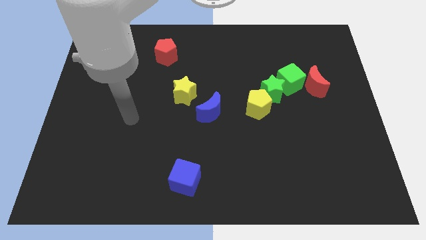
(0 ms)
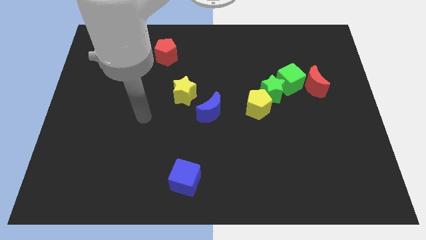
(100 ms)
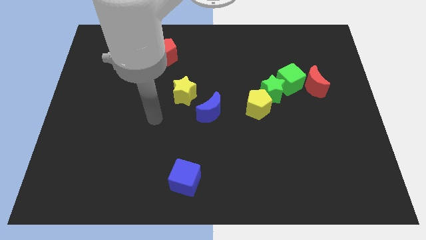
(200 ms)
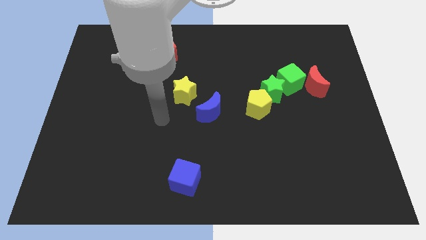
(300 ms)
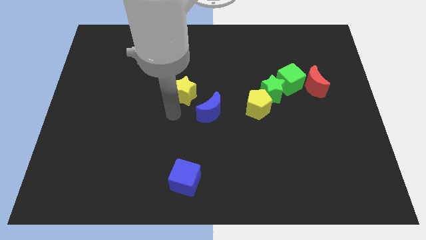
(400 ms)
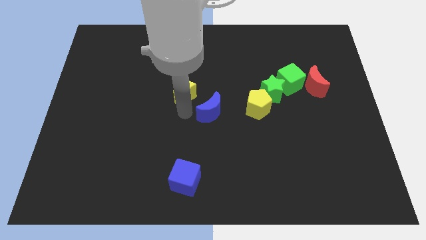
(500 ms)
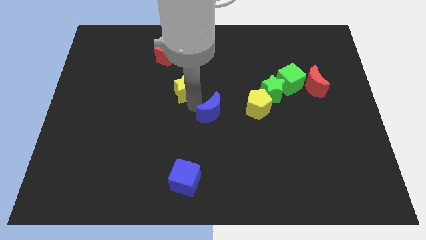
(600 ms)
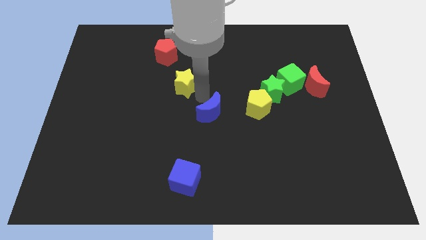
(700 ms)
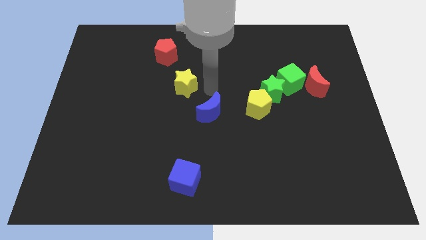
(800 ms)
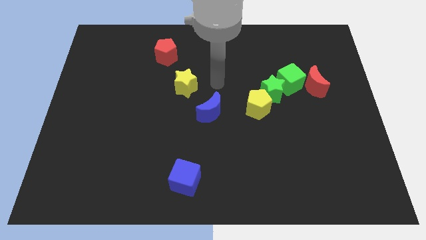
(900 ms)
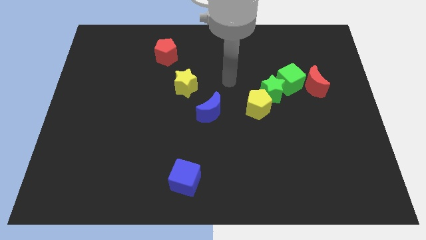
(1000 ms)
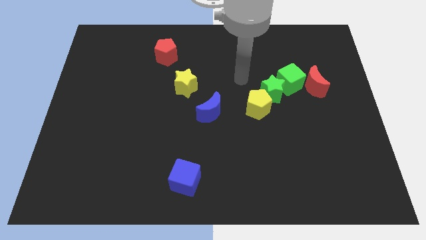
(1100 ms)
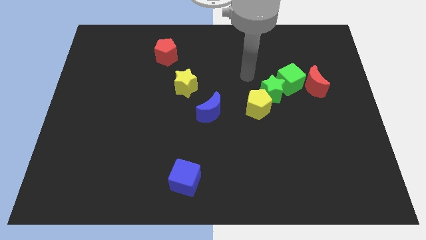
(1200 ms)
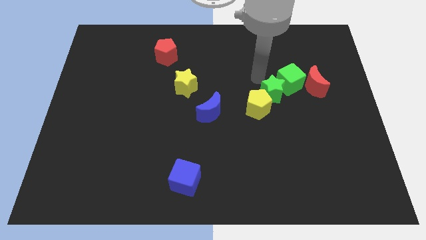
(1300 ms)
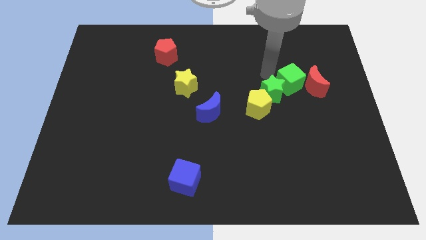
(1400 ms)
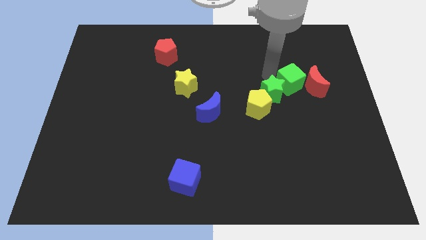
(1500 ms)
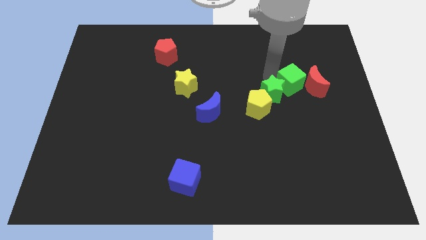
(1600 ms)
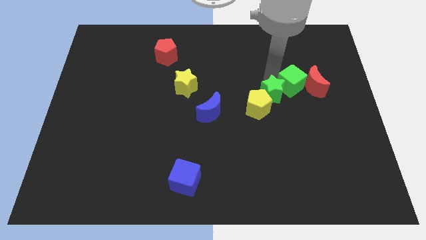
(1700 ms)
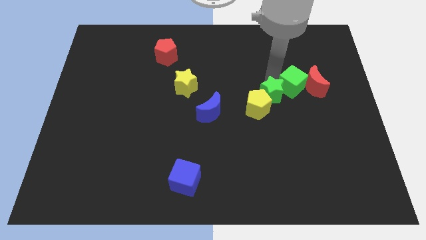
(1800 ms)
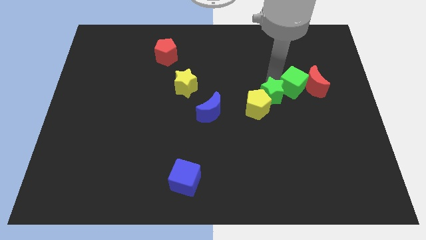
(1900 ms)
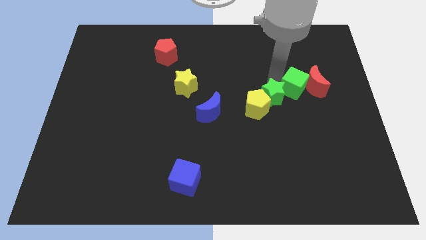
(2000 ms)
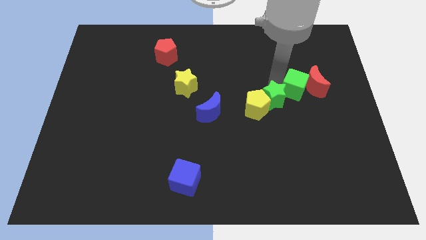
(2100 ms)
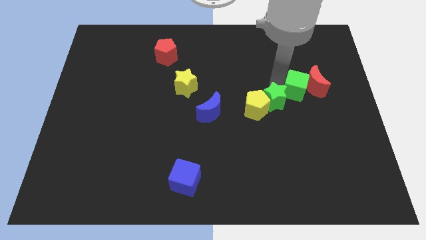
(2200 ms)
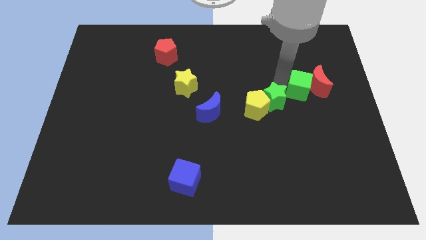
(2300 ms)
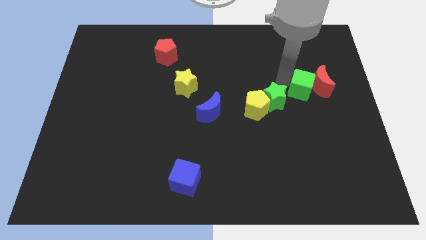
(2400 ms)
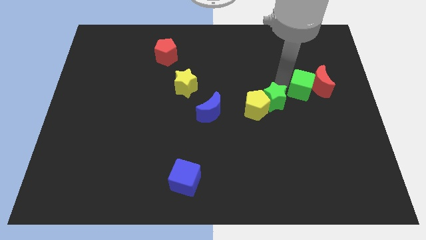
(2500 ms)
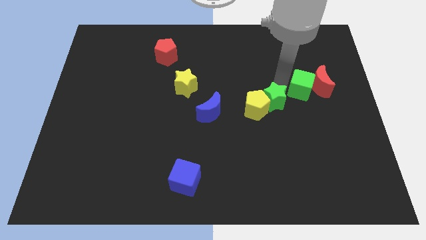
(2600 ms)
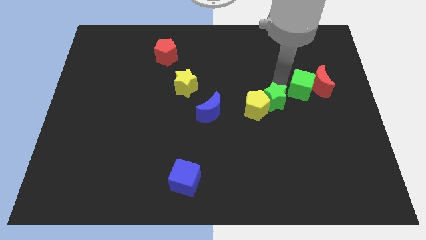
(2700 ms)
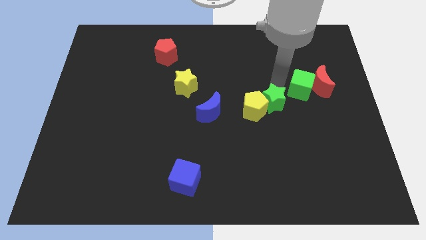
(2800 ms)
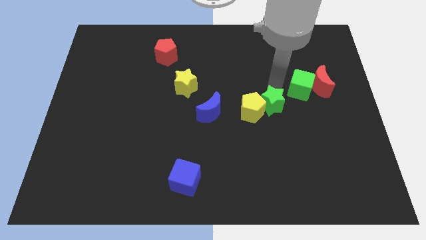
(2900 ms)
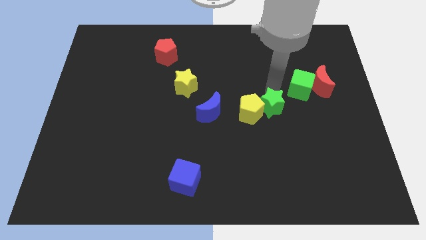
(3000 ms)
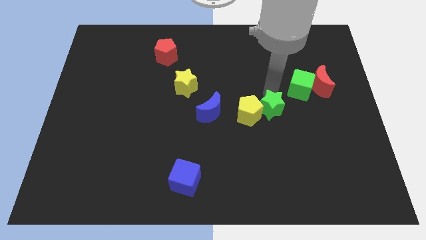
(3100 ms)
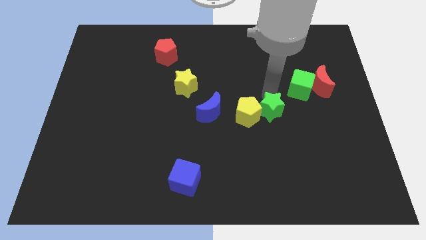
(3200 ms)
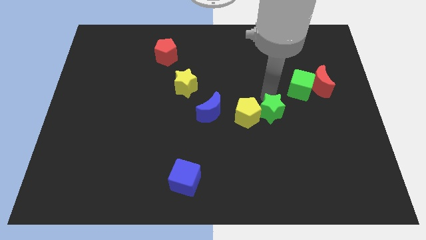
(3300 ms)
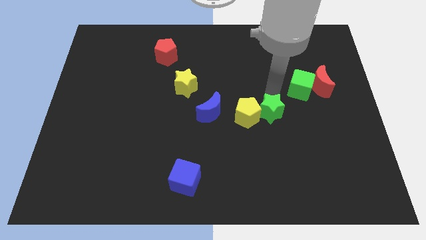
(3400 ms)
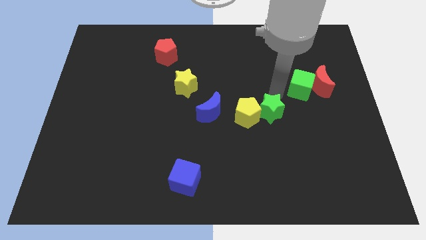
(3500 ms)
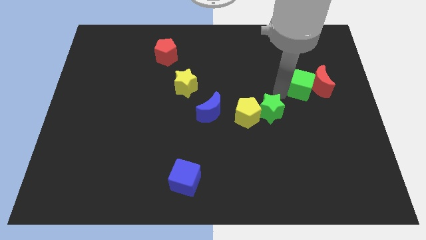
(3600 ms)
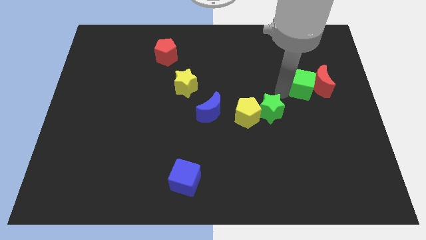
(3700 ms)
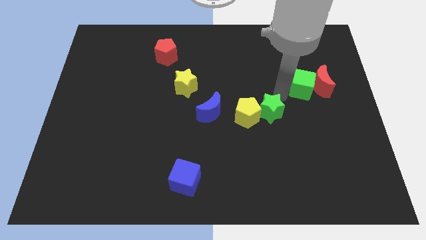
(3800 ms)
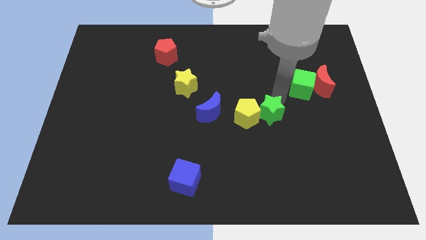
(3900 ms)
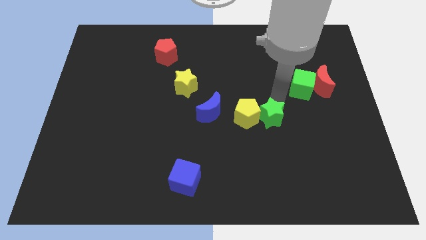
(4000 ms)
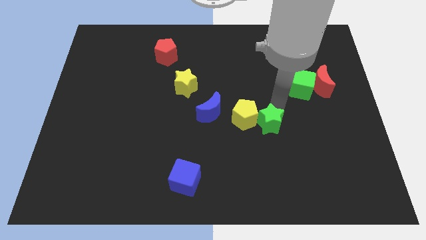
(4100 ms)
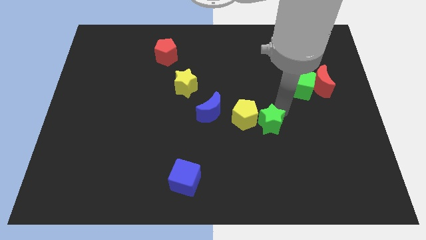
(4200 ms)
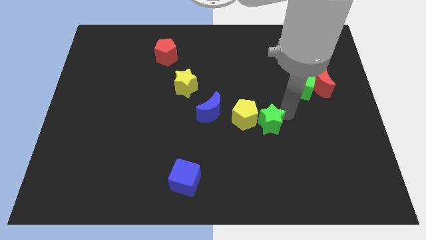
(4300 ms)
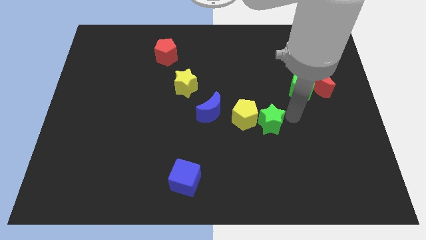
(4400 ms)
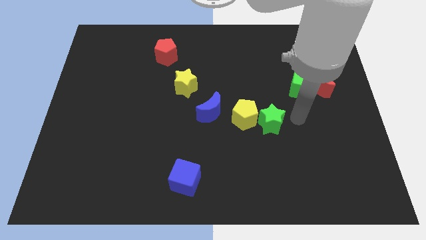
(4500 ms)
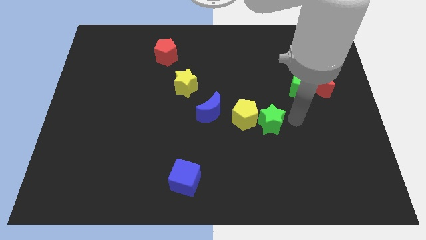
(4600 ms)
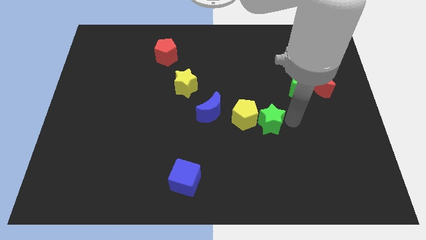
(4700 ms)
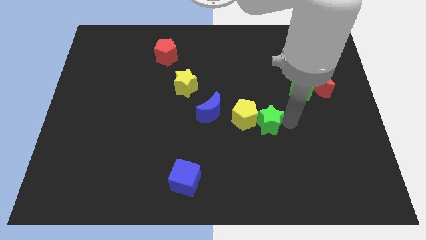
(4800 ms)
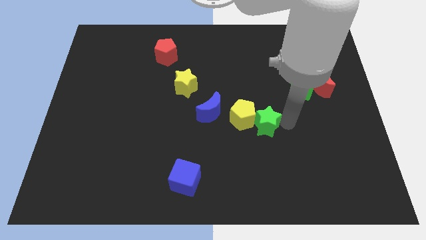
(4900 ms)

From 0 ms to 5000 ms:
move the green star downwards and then left somewhat

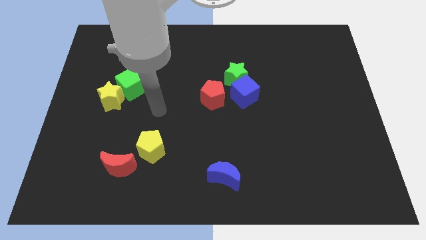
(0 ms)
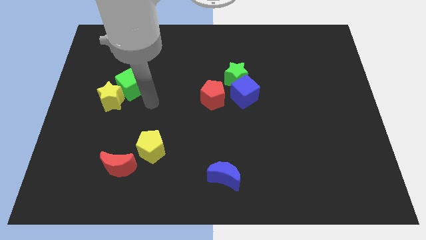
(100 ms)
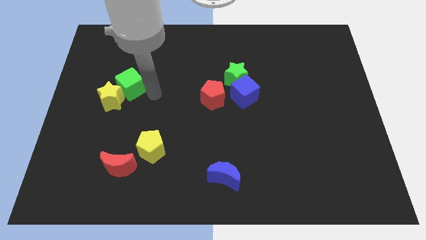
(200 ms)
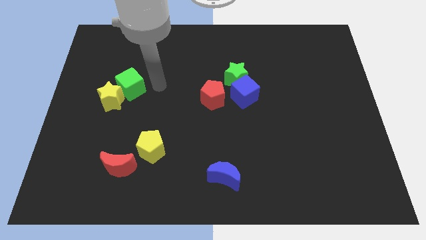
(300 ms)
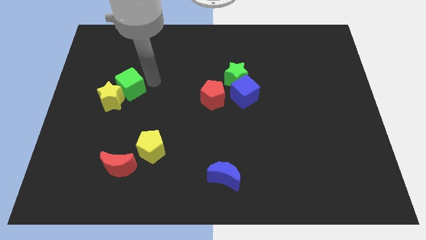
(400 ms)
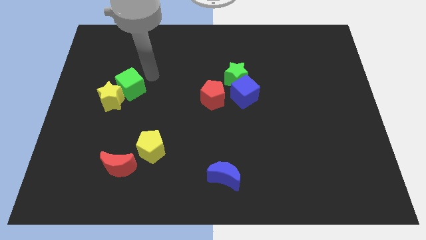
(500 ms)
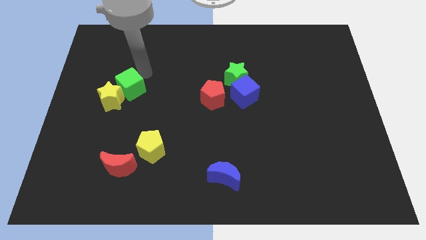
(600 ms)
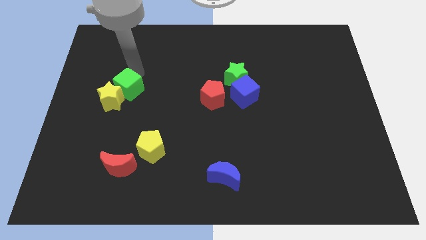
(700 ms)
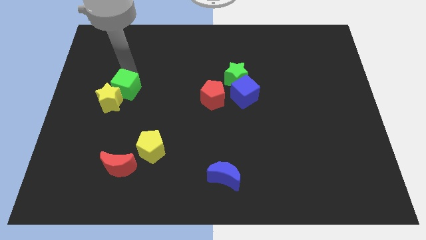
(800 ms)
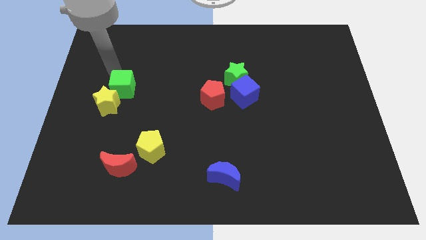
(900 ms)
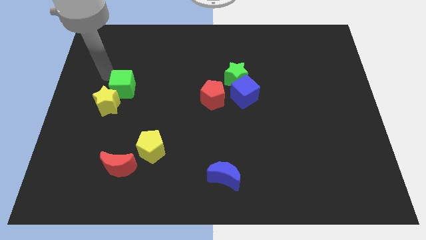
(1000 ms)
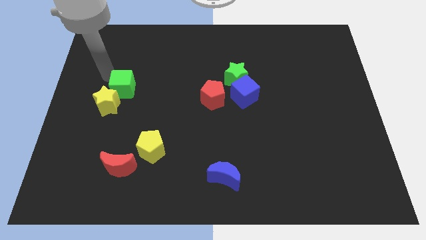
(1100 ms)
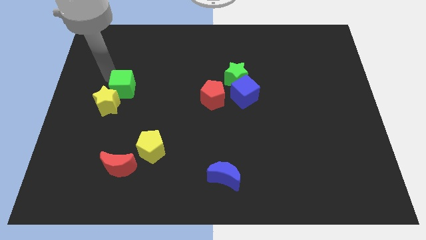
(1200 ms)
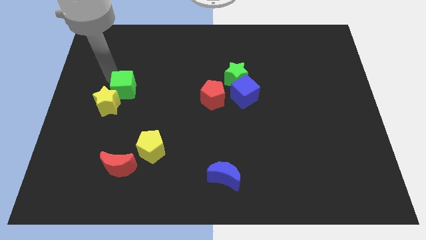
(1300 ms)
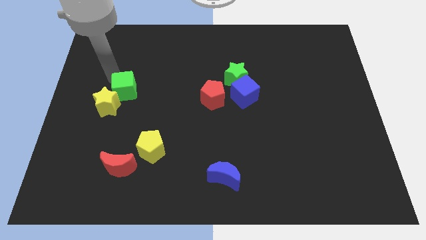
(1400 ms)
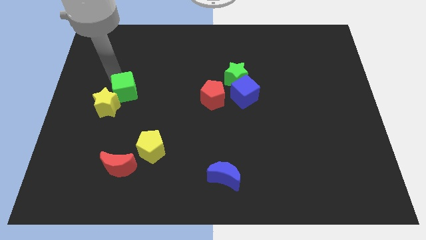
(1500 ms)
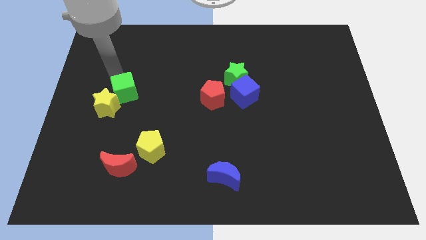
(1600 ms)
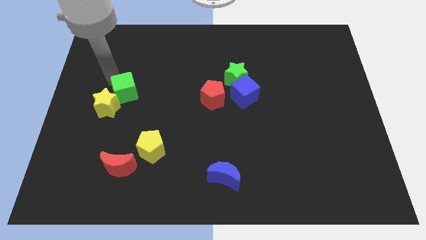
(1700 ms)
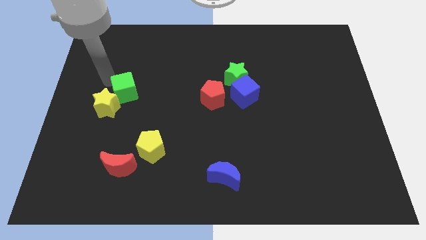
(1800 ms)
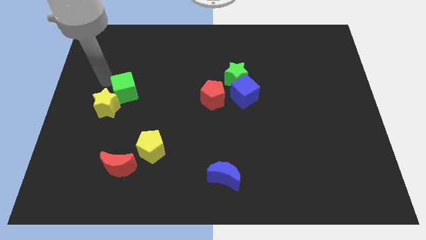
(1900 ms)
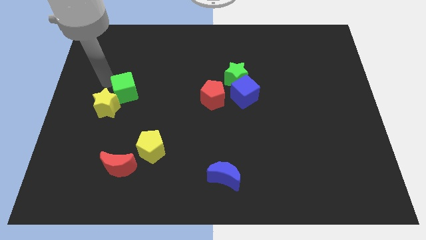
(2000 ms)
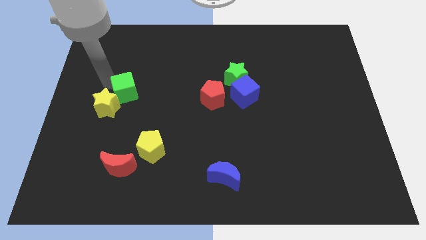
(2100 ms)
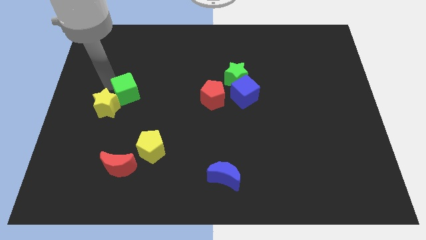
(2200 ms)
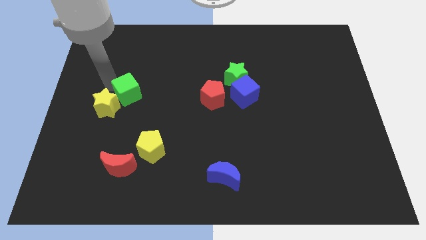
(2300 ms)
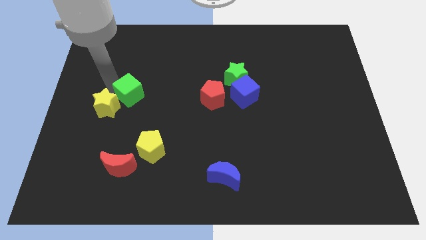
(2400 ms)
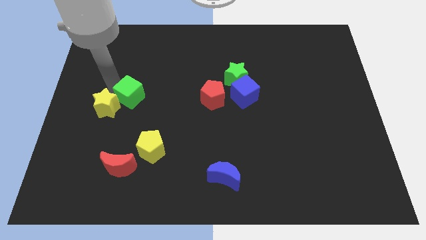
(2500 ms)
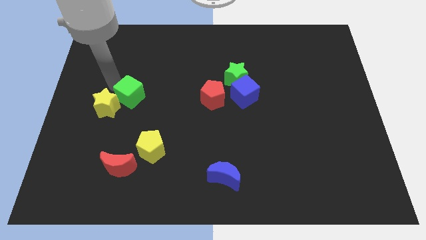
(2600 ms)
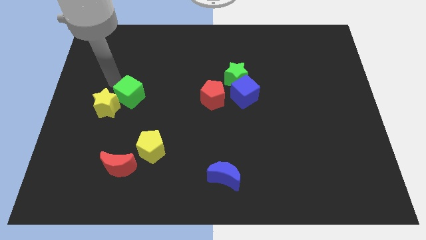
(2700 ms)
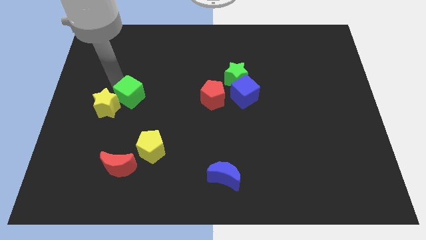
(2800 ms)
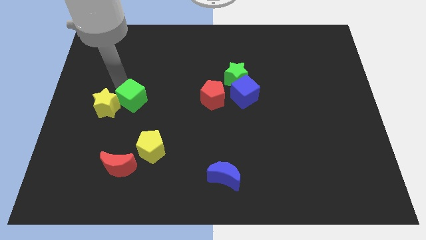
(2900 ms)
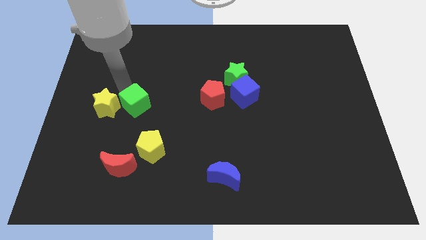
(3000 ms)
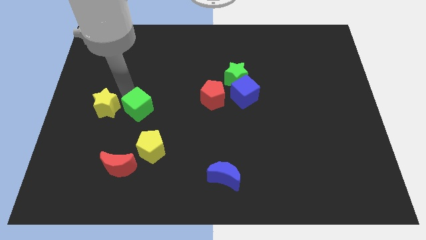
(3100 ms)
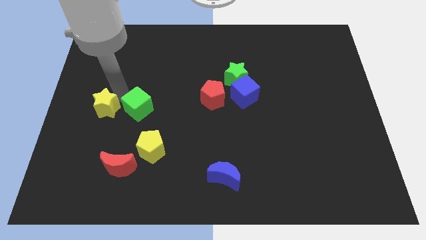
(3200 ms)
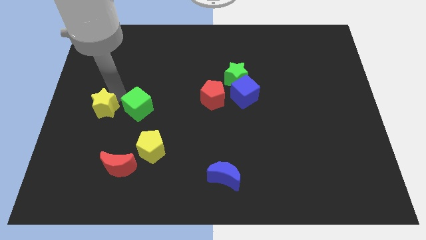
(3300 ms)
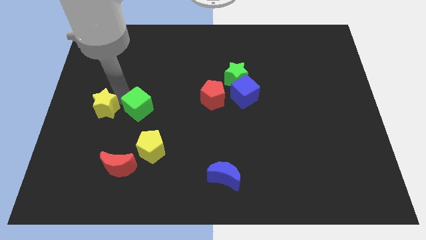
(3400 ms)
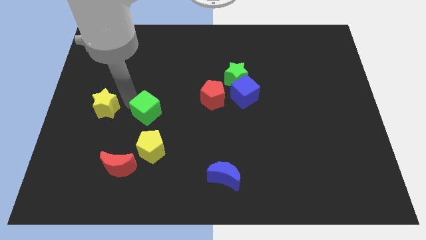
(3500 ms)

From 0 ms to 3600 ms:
move the green cube a bit down and then right
